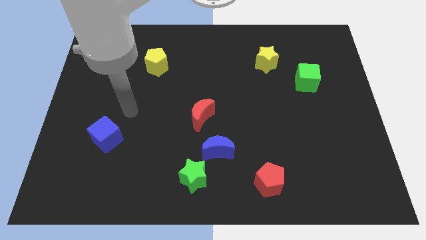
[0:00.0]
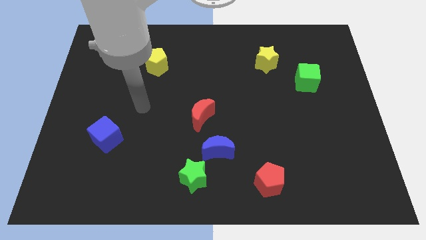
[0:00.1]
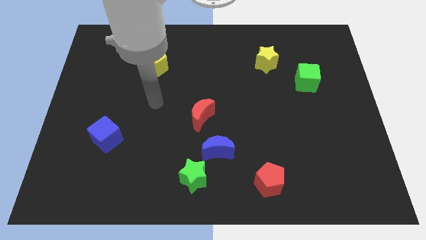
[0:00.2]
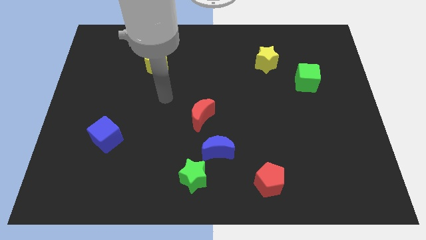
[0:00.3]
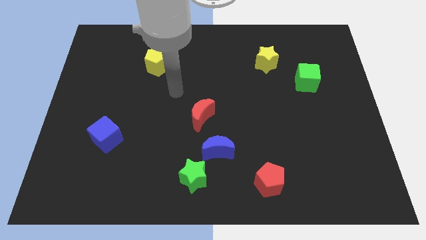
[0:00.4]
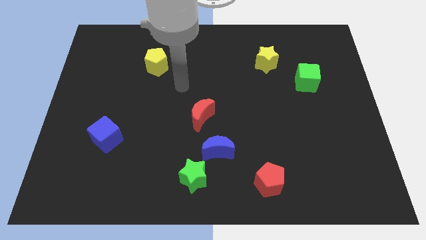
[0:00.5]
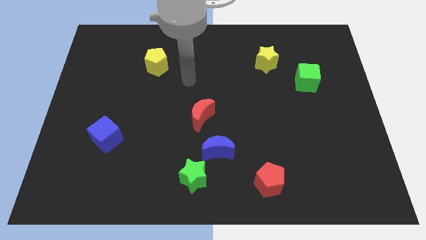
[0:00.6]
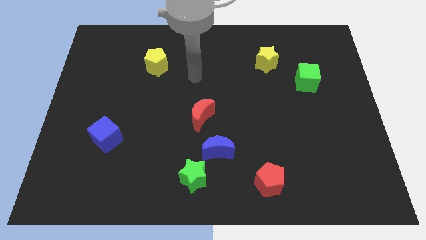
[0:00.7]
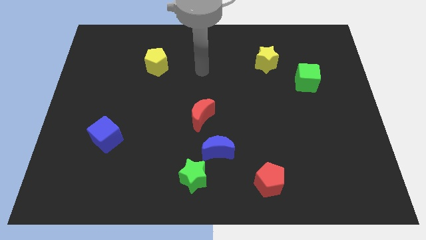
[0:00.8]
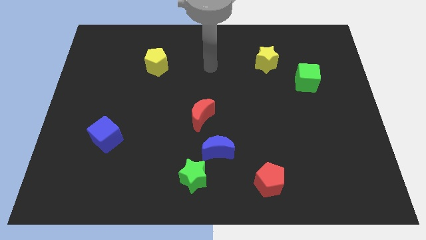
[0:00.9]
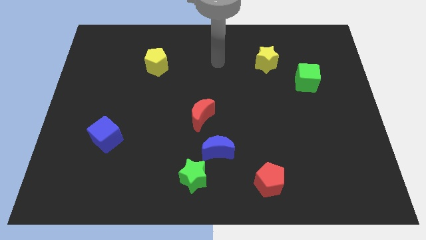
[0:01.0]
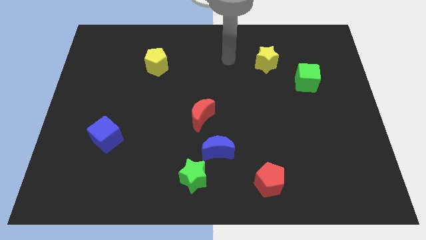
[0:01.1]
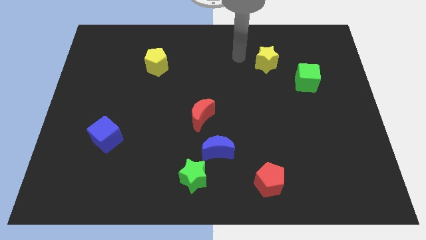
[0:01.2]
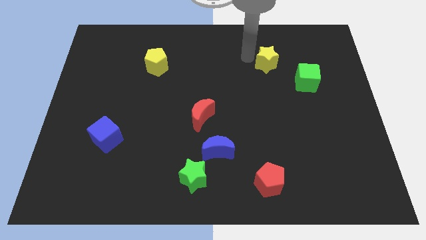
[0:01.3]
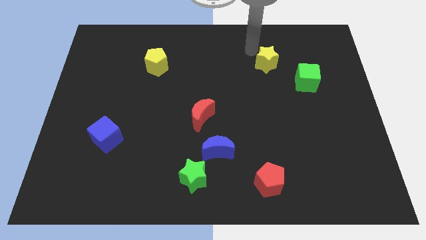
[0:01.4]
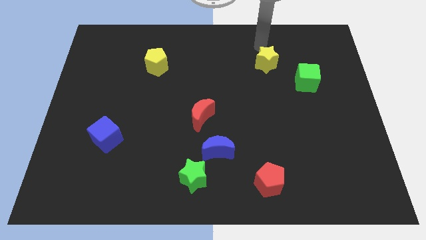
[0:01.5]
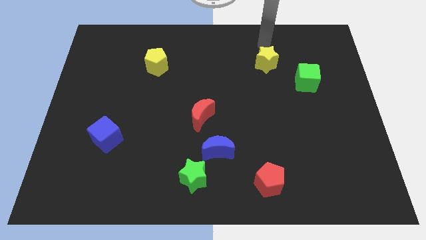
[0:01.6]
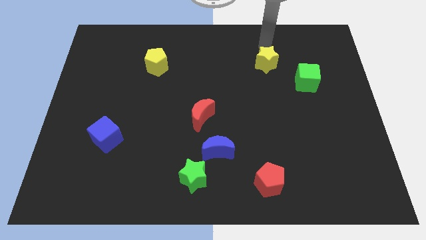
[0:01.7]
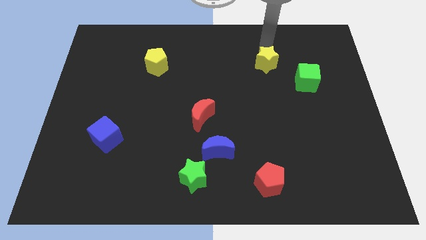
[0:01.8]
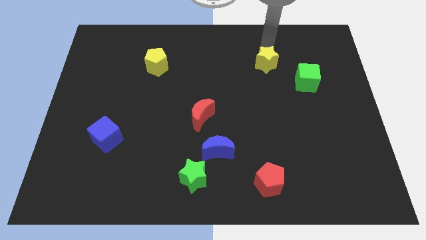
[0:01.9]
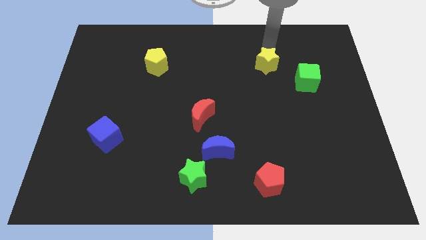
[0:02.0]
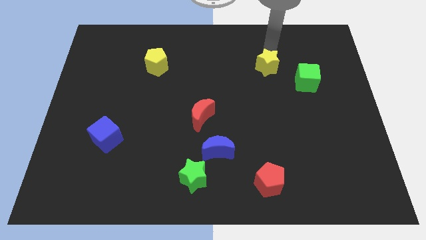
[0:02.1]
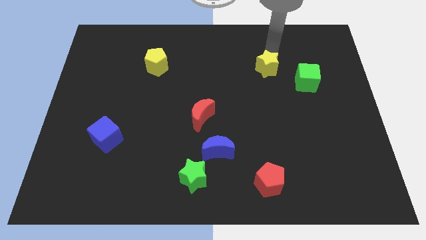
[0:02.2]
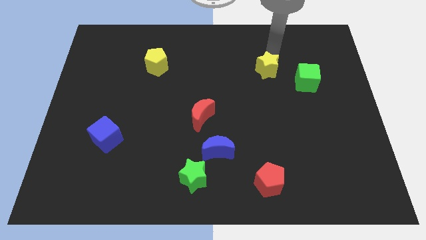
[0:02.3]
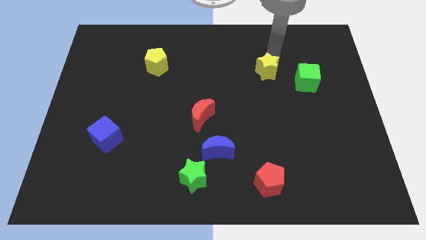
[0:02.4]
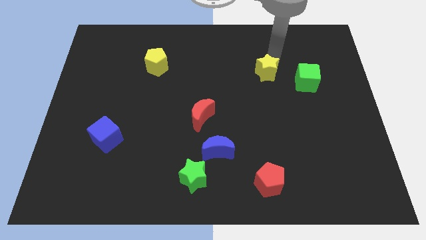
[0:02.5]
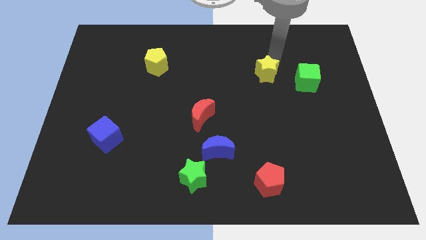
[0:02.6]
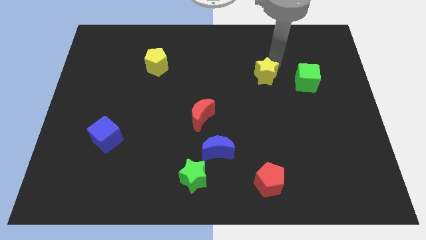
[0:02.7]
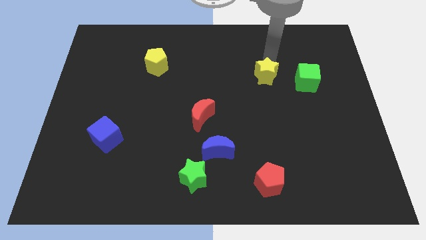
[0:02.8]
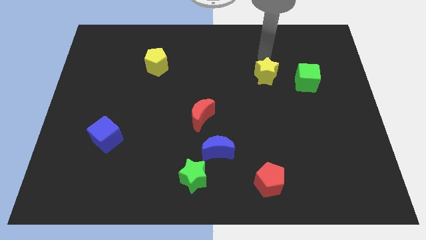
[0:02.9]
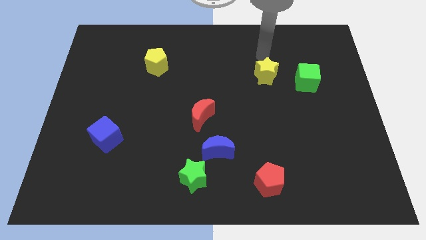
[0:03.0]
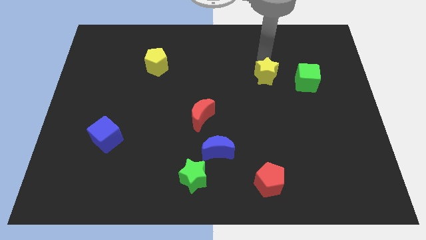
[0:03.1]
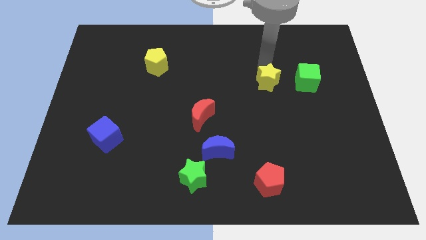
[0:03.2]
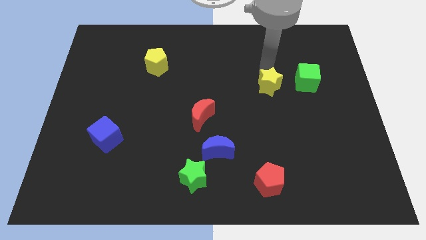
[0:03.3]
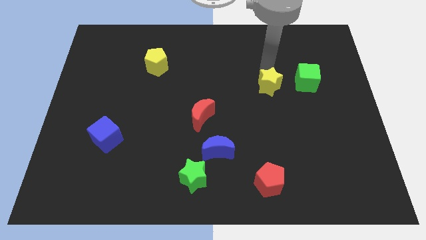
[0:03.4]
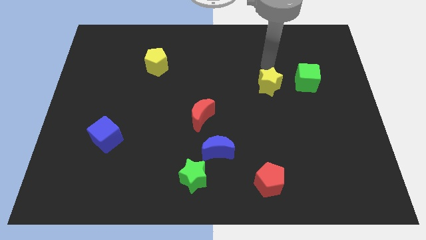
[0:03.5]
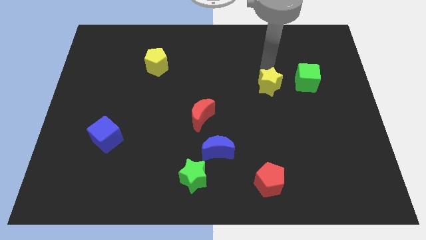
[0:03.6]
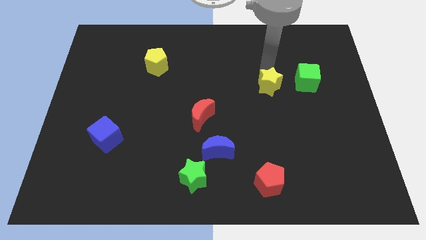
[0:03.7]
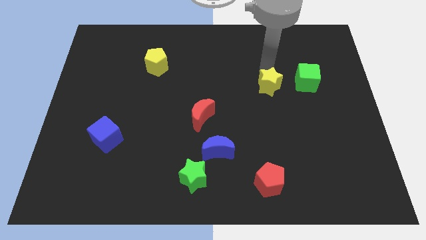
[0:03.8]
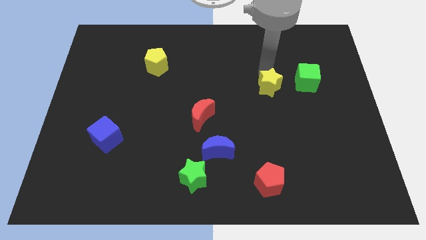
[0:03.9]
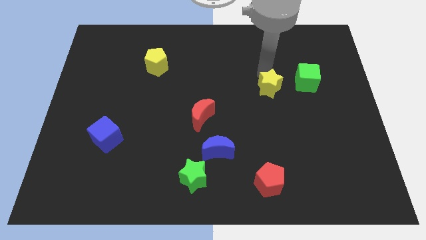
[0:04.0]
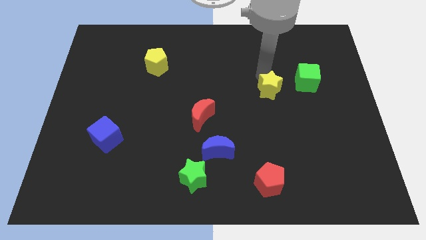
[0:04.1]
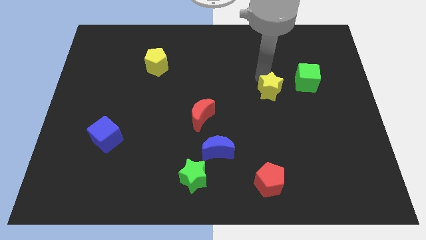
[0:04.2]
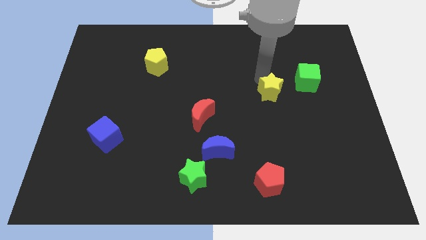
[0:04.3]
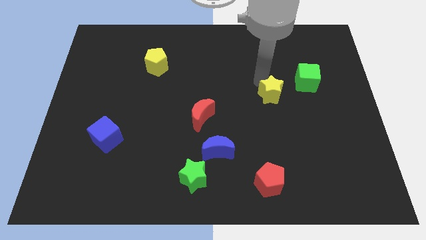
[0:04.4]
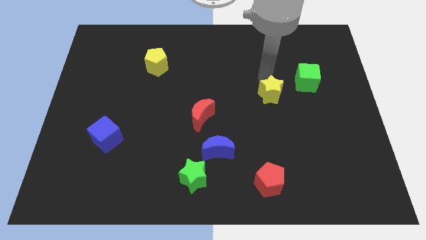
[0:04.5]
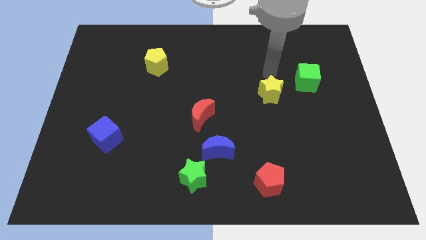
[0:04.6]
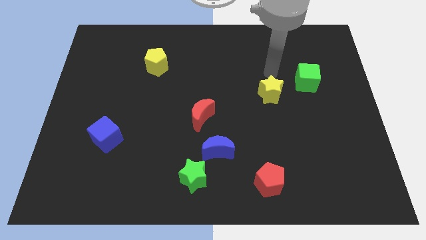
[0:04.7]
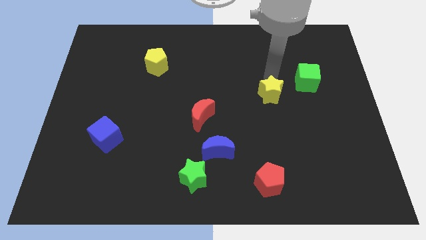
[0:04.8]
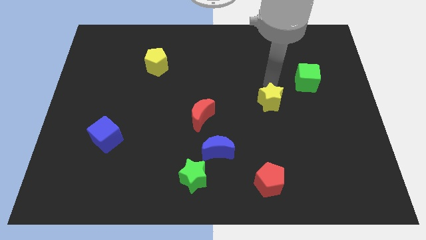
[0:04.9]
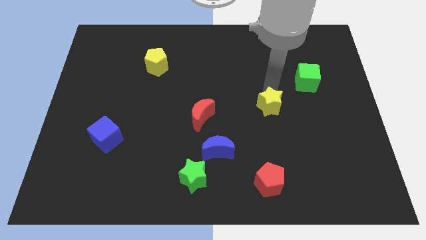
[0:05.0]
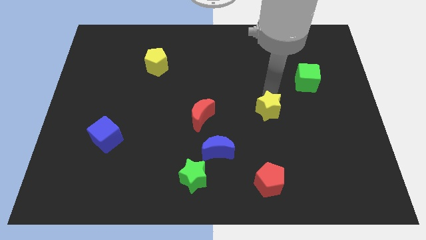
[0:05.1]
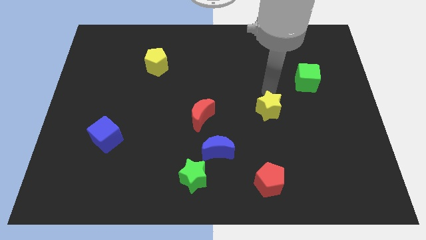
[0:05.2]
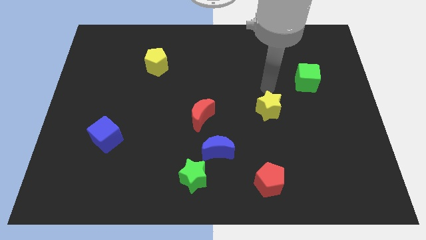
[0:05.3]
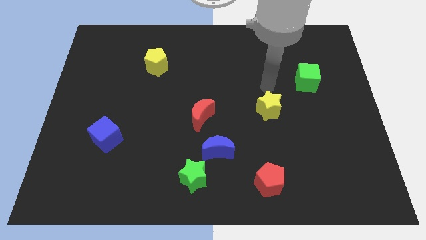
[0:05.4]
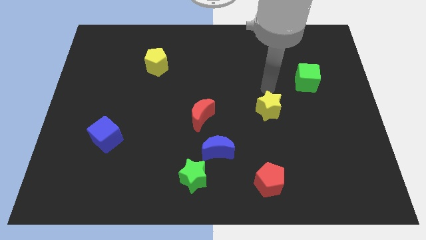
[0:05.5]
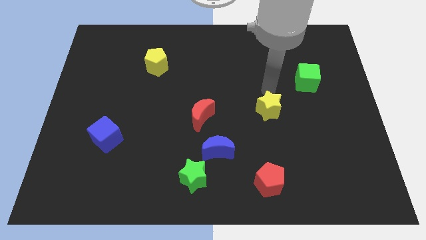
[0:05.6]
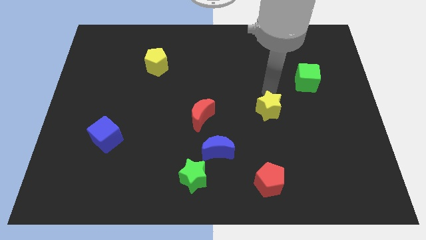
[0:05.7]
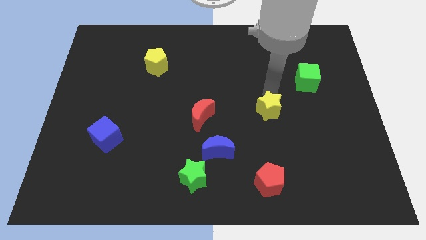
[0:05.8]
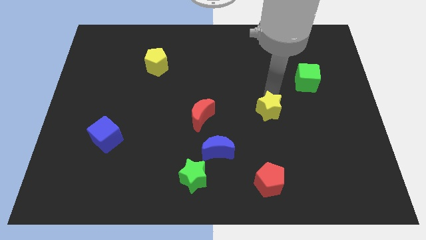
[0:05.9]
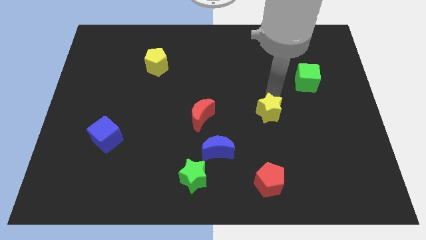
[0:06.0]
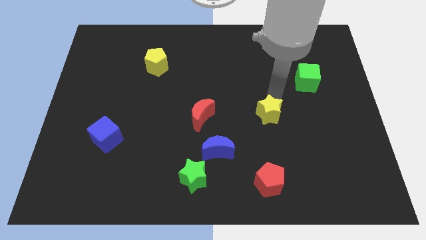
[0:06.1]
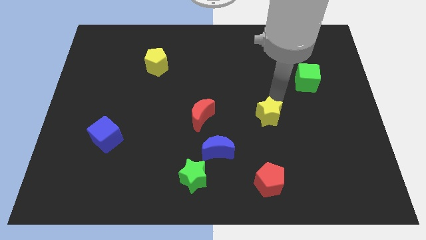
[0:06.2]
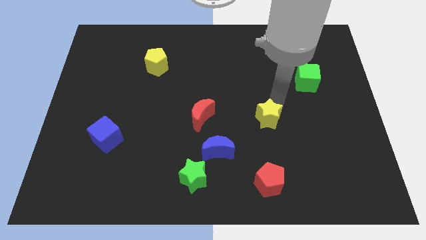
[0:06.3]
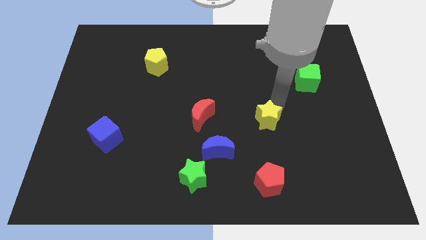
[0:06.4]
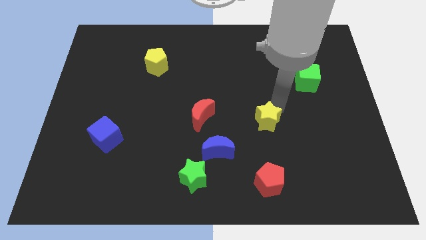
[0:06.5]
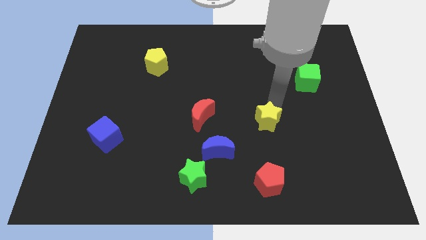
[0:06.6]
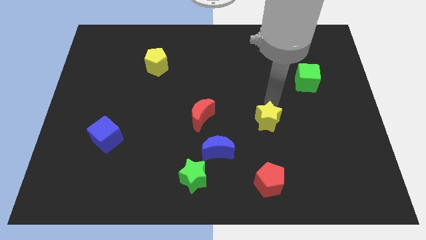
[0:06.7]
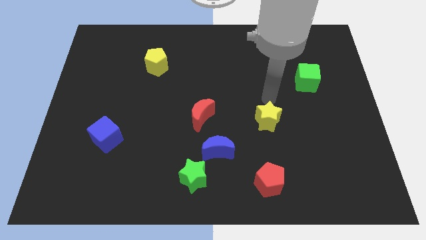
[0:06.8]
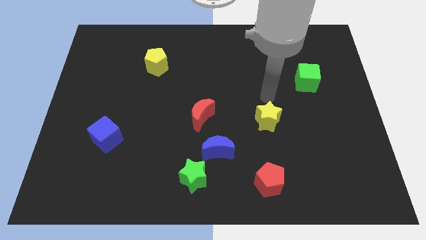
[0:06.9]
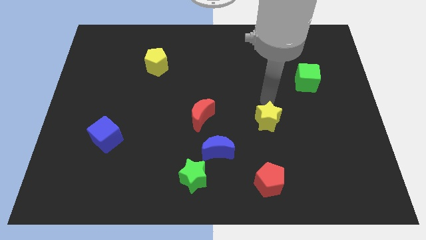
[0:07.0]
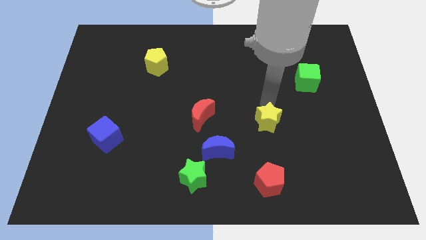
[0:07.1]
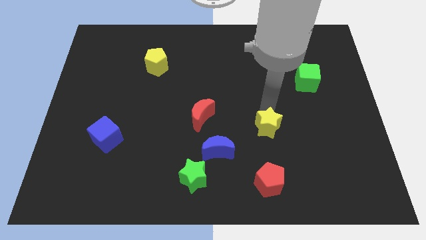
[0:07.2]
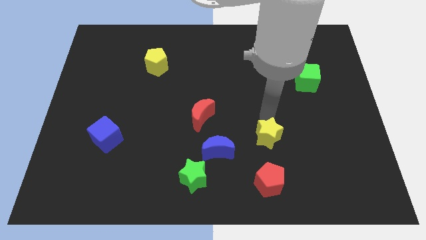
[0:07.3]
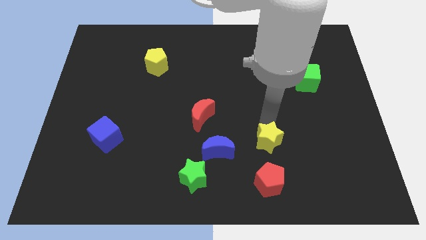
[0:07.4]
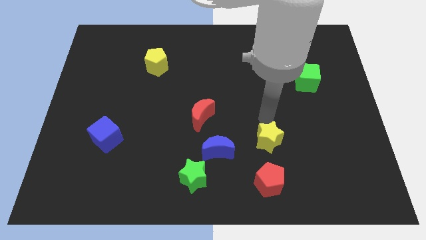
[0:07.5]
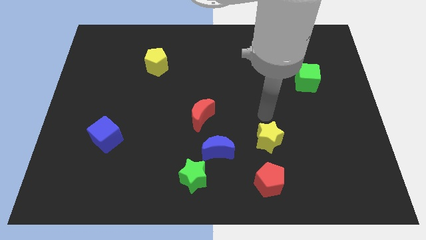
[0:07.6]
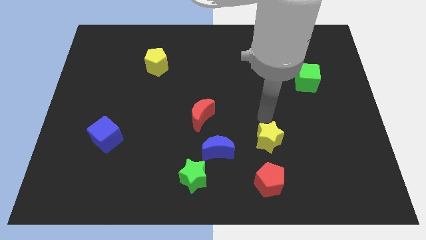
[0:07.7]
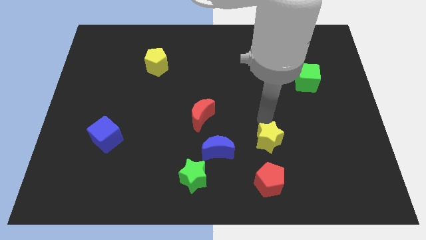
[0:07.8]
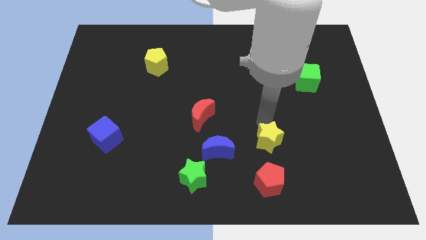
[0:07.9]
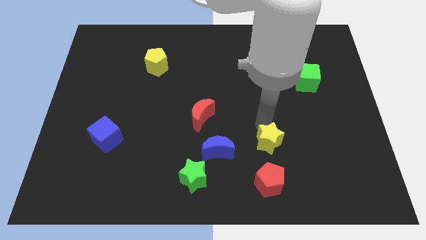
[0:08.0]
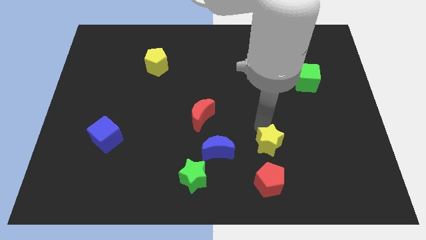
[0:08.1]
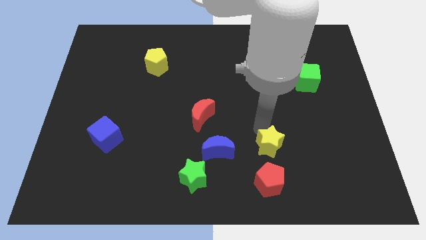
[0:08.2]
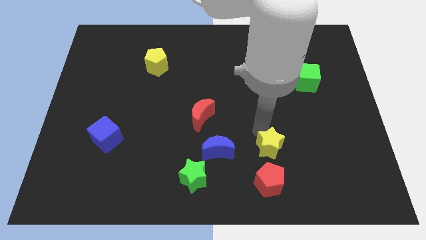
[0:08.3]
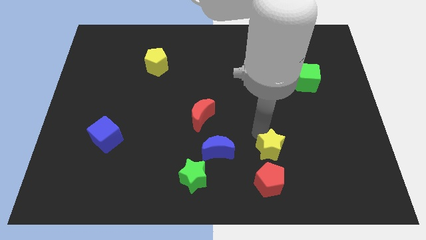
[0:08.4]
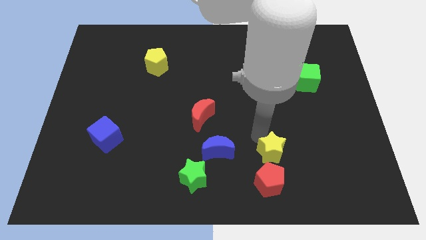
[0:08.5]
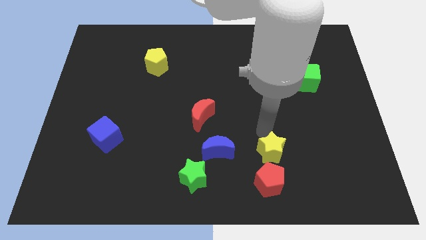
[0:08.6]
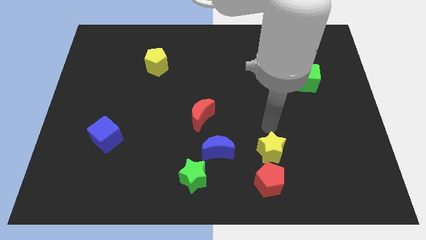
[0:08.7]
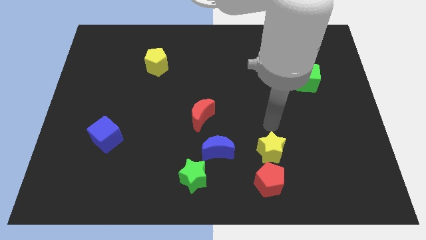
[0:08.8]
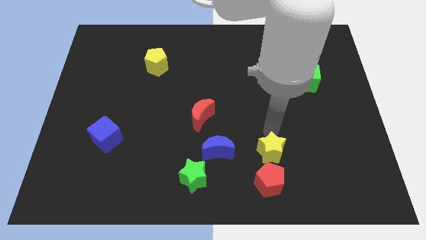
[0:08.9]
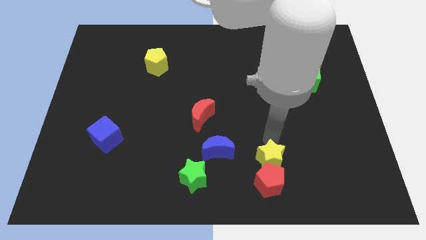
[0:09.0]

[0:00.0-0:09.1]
put the yellow star next to the red pentagon
